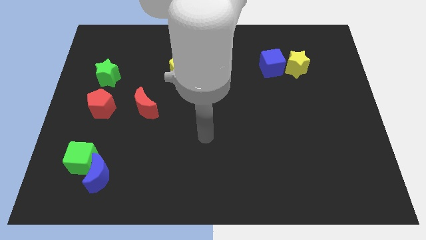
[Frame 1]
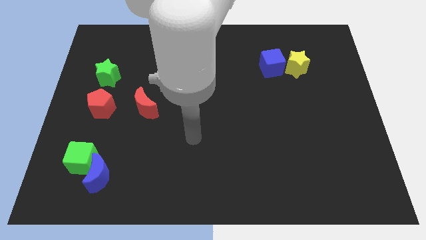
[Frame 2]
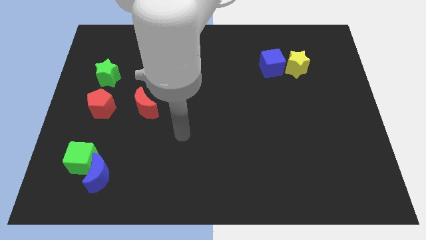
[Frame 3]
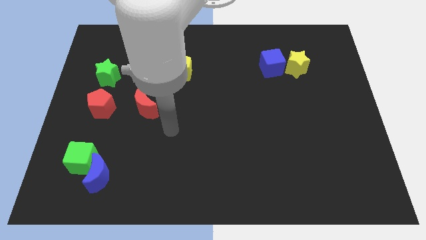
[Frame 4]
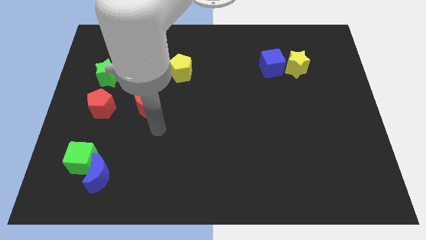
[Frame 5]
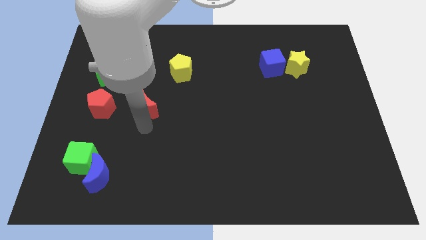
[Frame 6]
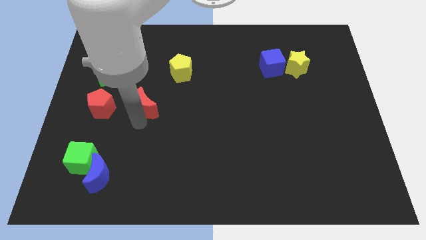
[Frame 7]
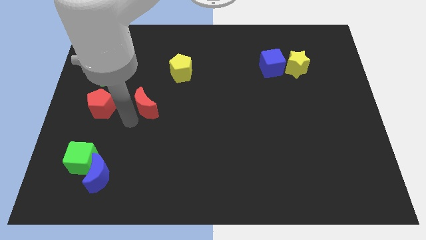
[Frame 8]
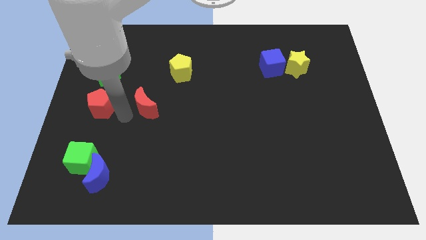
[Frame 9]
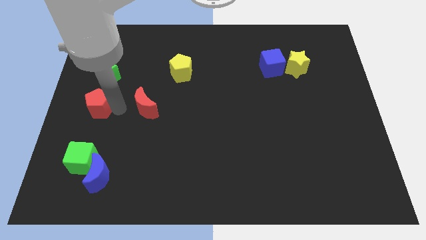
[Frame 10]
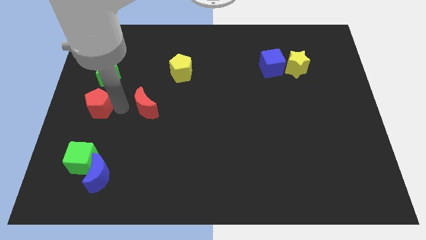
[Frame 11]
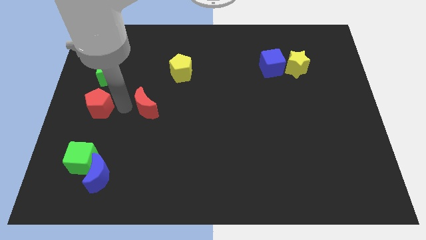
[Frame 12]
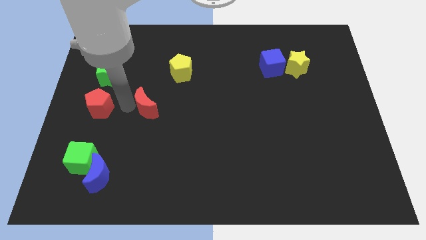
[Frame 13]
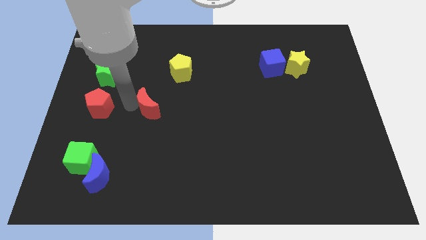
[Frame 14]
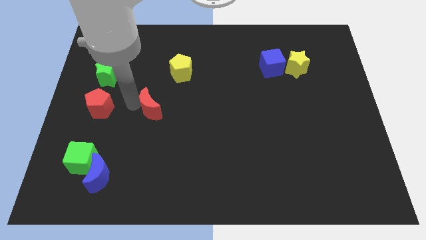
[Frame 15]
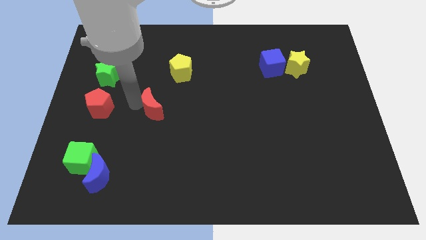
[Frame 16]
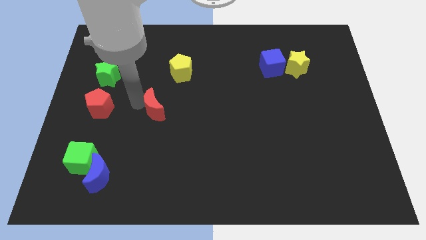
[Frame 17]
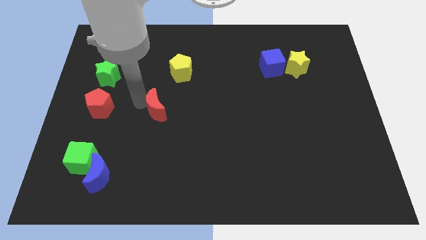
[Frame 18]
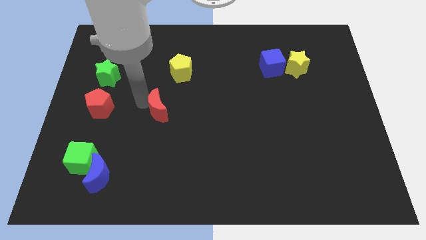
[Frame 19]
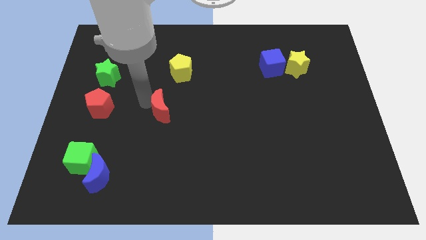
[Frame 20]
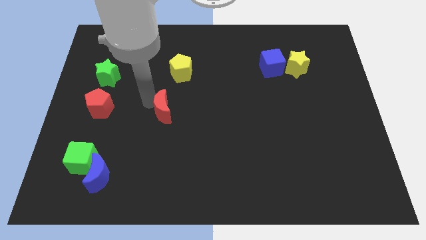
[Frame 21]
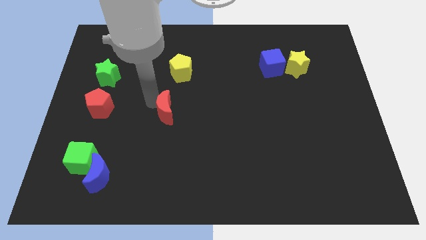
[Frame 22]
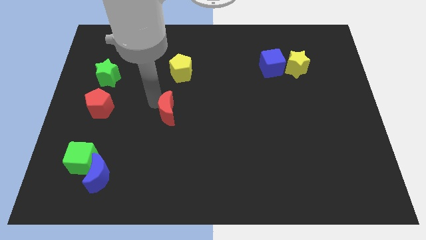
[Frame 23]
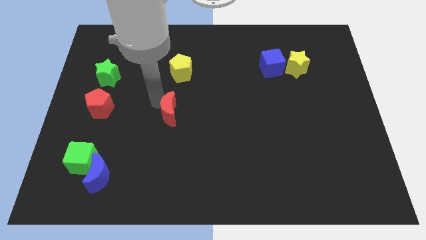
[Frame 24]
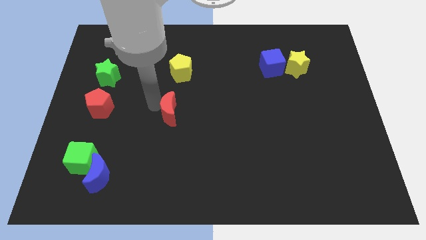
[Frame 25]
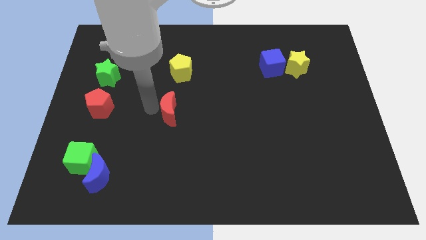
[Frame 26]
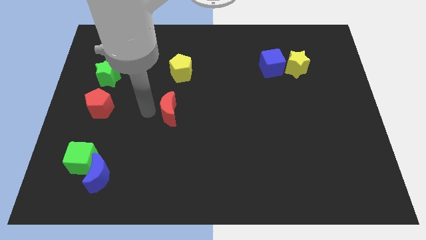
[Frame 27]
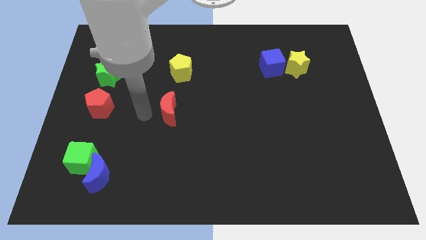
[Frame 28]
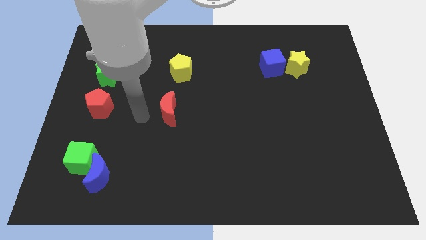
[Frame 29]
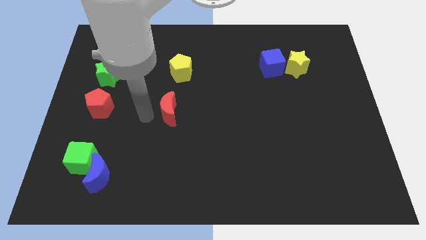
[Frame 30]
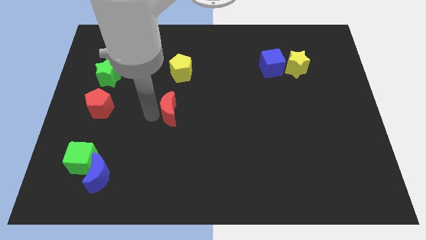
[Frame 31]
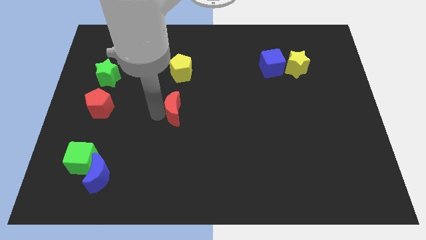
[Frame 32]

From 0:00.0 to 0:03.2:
slightly slide the red moon to the right

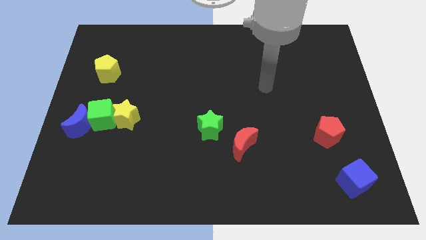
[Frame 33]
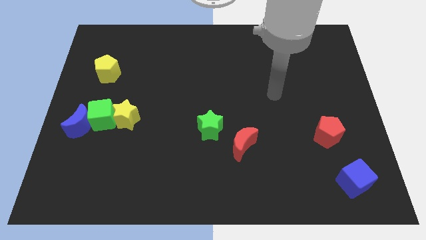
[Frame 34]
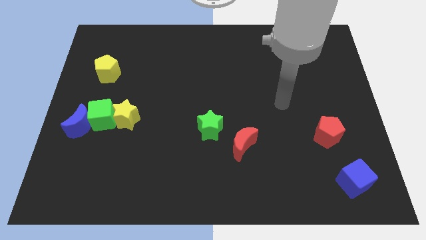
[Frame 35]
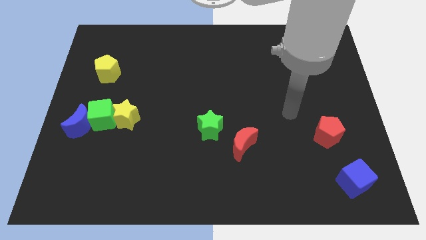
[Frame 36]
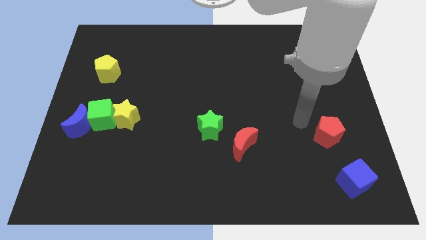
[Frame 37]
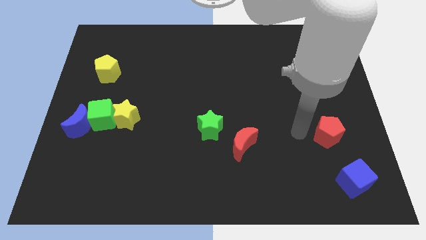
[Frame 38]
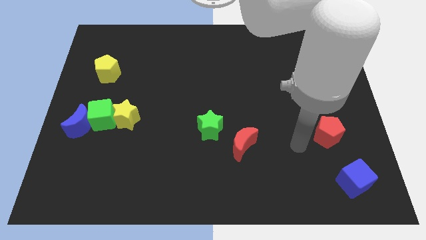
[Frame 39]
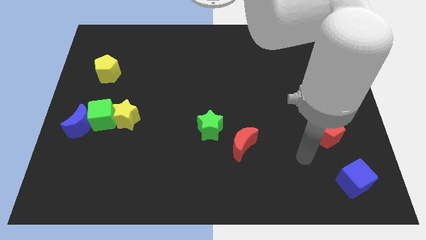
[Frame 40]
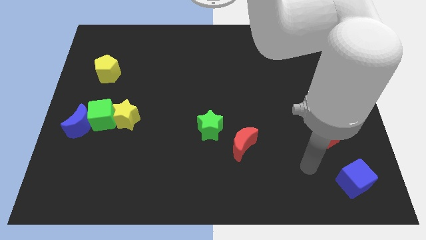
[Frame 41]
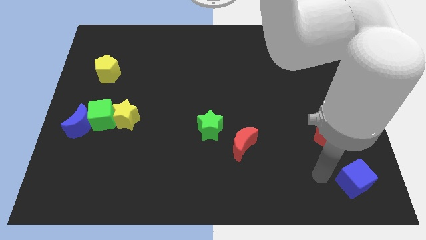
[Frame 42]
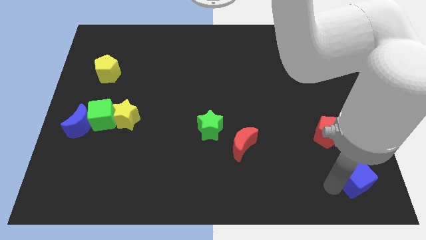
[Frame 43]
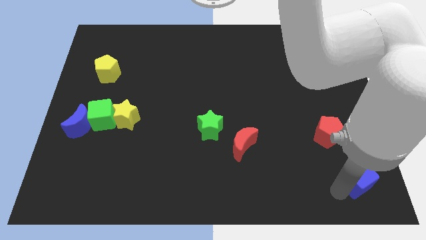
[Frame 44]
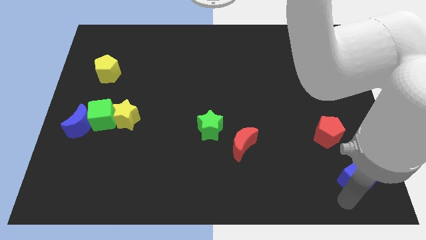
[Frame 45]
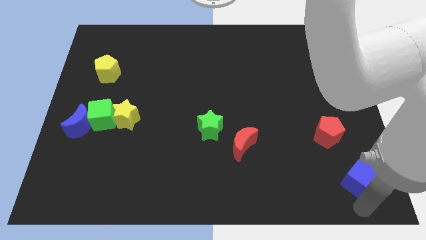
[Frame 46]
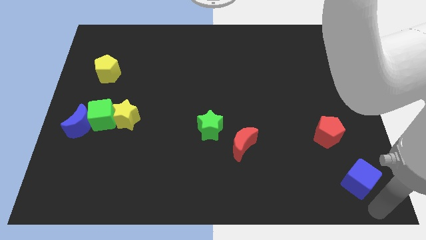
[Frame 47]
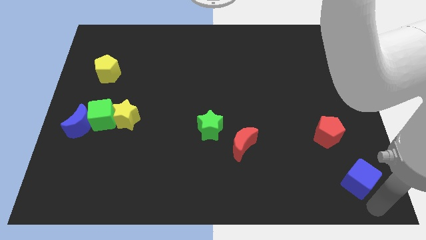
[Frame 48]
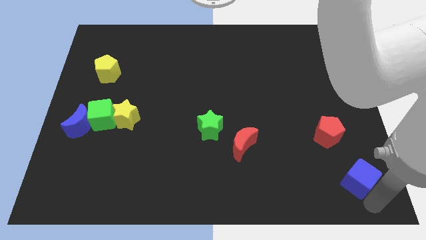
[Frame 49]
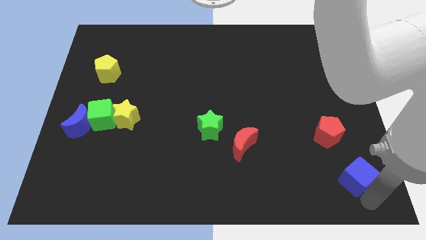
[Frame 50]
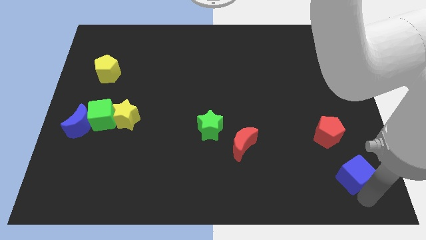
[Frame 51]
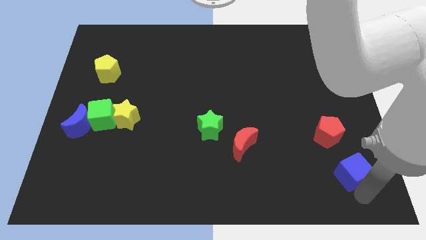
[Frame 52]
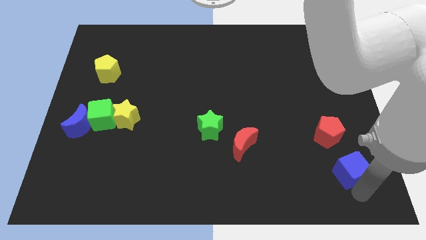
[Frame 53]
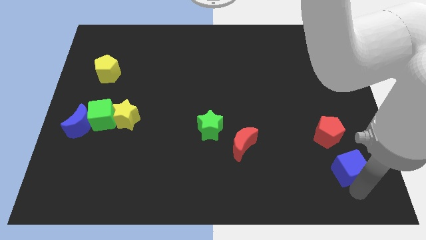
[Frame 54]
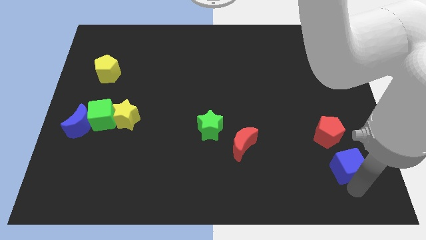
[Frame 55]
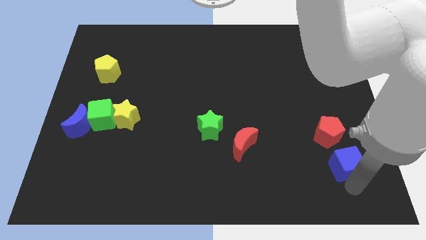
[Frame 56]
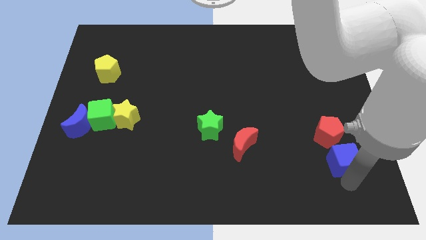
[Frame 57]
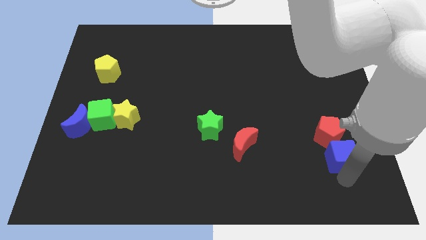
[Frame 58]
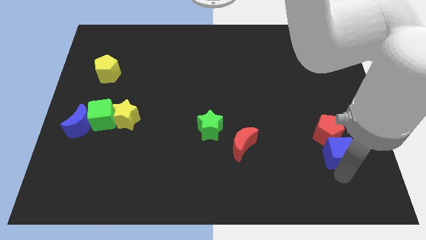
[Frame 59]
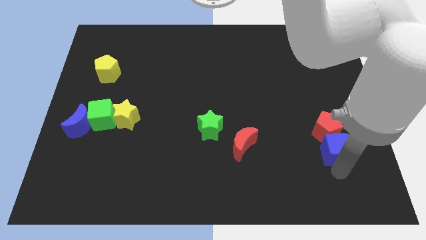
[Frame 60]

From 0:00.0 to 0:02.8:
slide the blue cube a little bit upwards

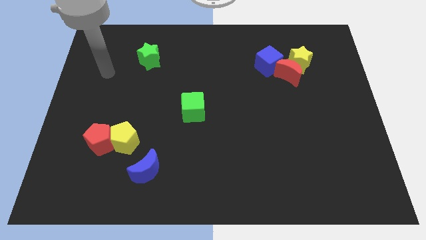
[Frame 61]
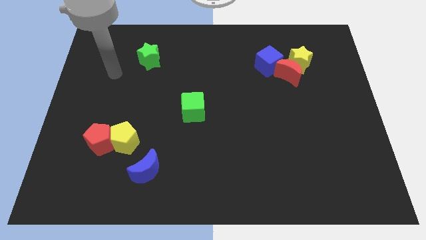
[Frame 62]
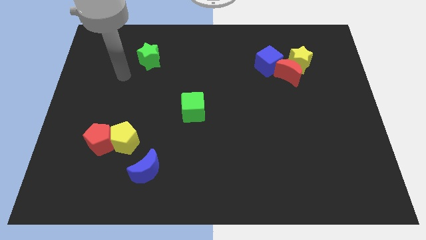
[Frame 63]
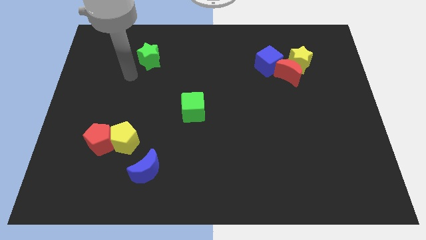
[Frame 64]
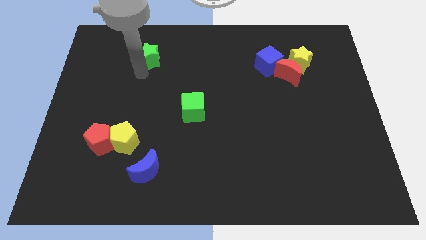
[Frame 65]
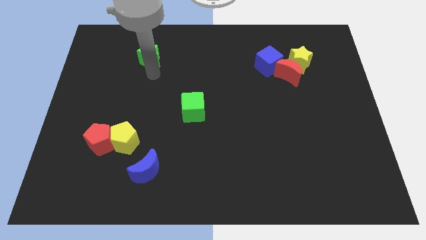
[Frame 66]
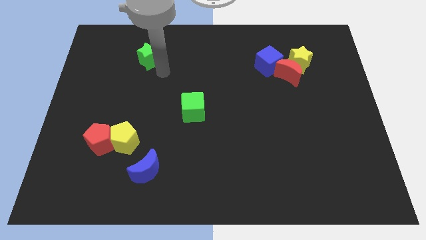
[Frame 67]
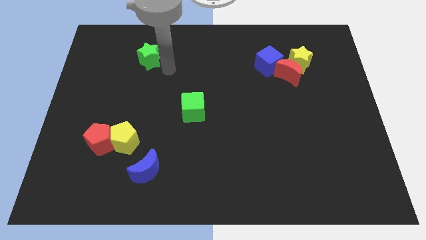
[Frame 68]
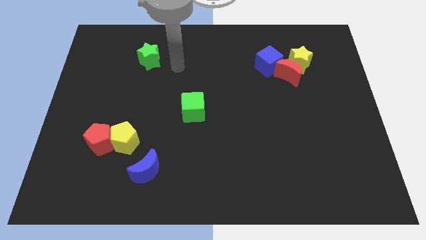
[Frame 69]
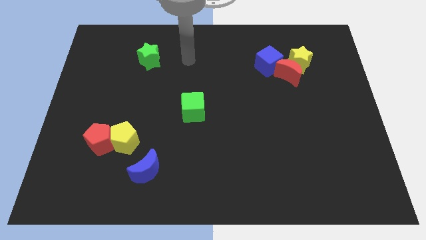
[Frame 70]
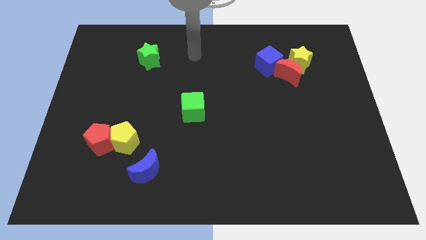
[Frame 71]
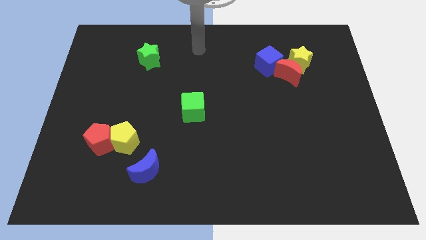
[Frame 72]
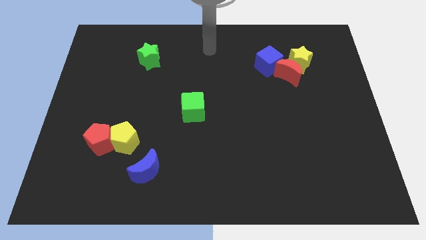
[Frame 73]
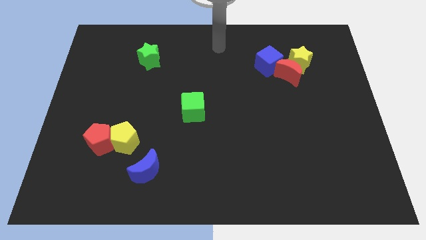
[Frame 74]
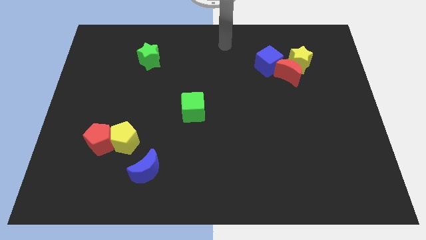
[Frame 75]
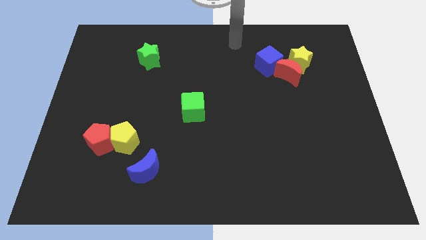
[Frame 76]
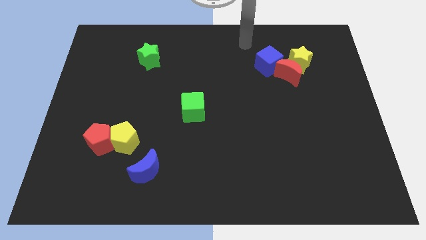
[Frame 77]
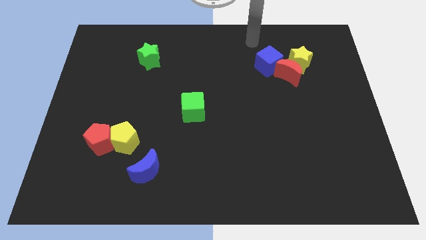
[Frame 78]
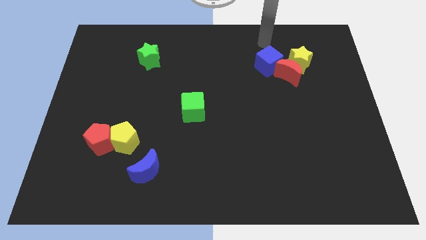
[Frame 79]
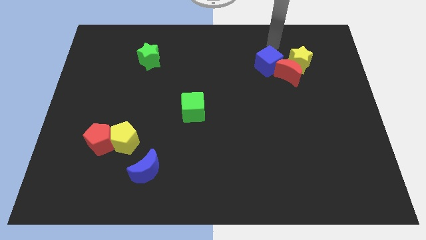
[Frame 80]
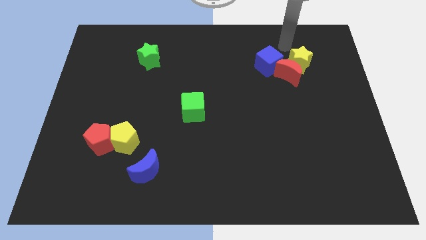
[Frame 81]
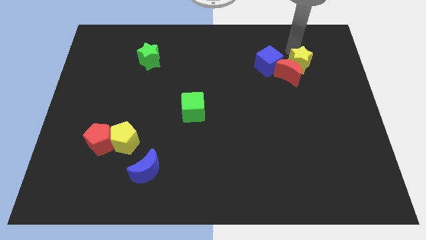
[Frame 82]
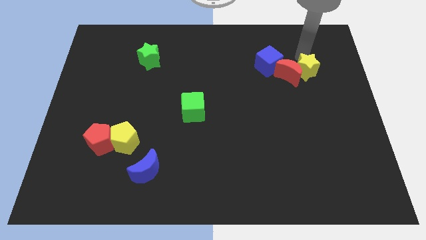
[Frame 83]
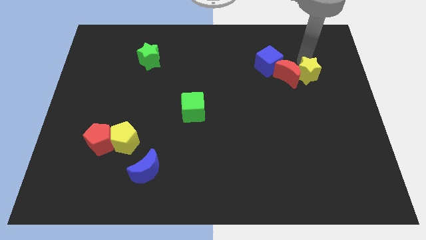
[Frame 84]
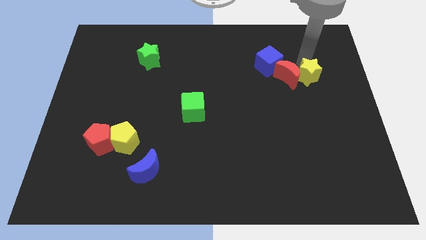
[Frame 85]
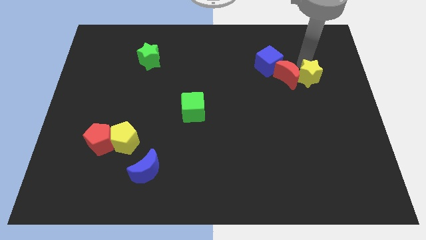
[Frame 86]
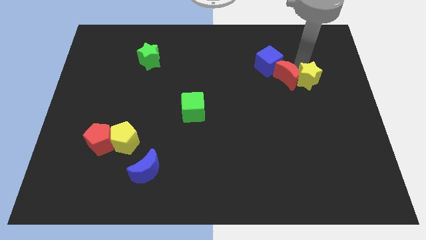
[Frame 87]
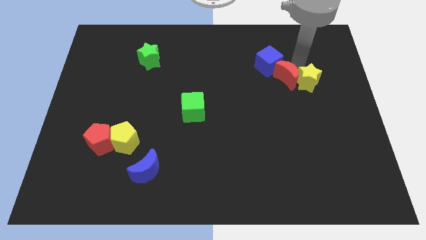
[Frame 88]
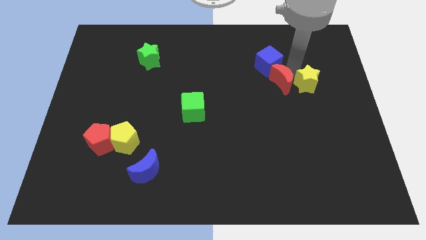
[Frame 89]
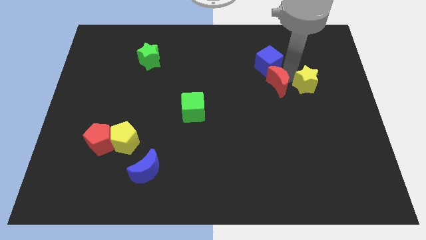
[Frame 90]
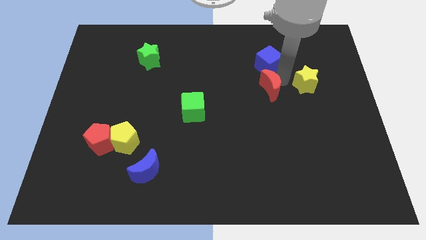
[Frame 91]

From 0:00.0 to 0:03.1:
push the red moon downwards and then left slightly
